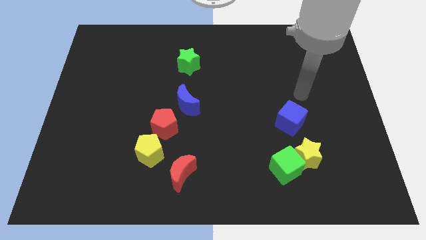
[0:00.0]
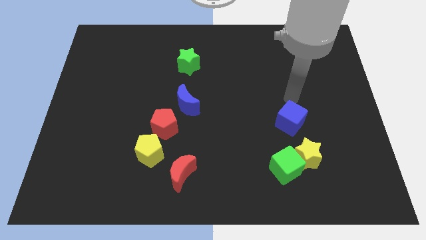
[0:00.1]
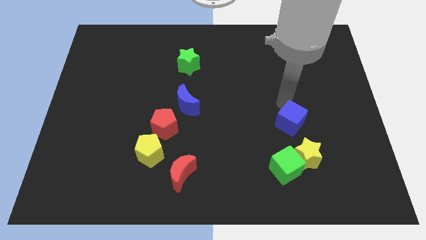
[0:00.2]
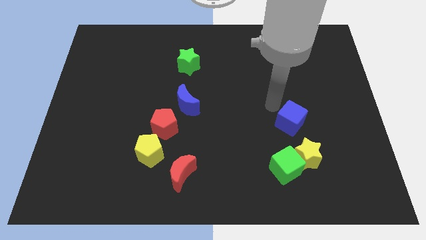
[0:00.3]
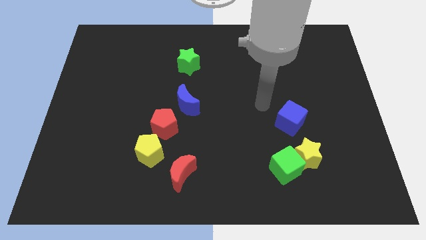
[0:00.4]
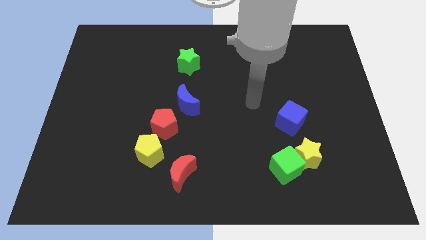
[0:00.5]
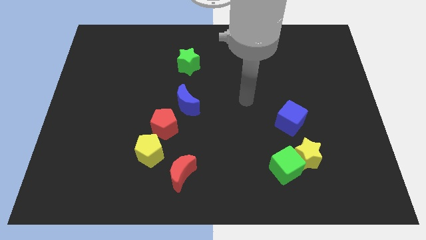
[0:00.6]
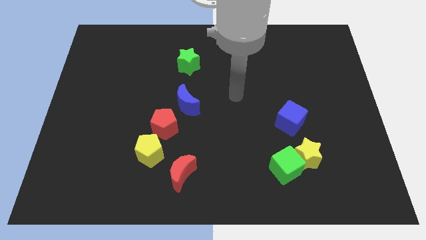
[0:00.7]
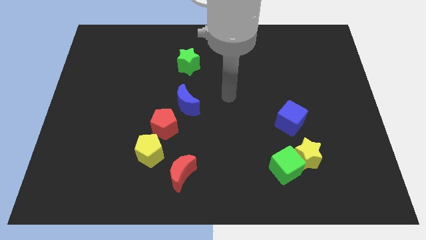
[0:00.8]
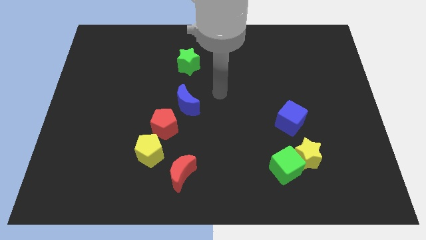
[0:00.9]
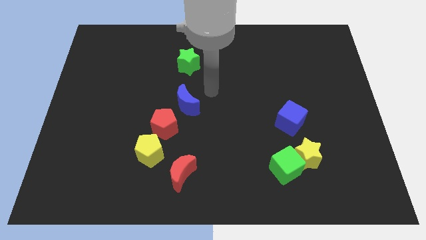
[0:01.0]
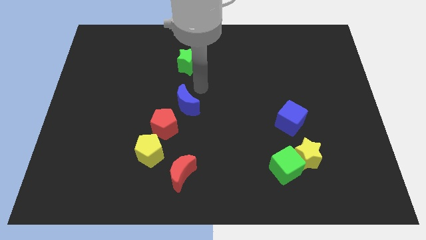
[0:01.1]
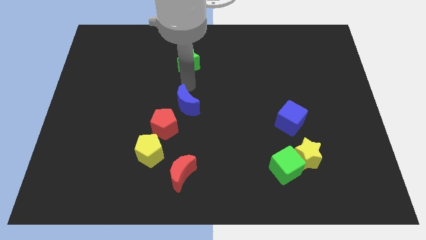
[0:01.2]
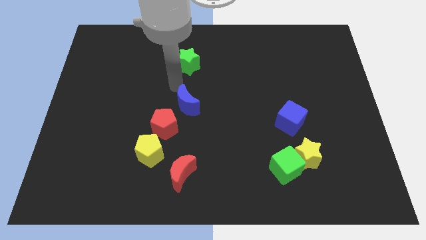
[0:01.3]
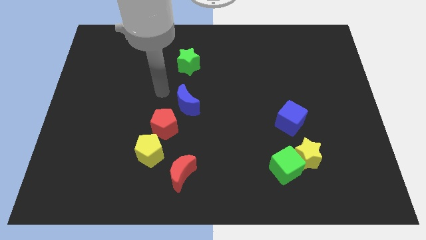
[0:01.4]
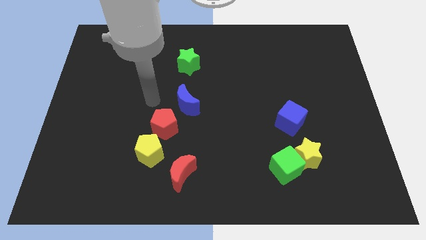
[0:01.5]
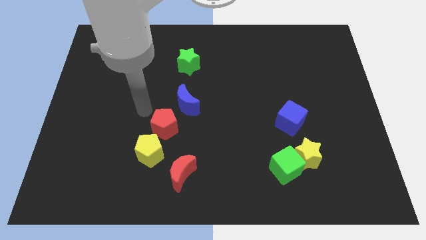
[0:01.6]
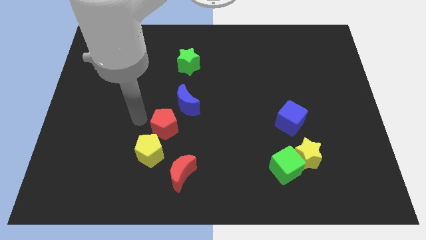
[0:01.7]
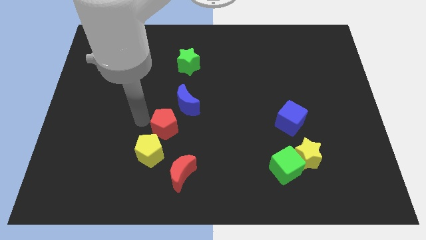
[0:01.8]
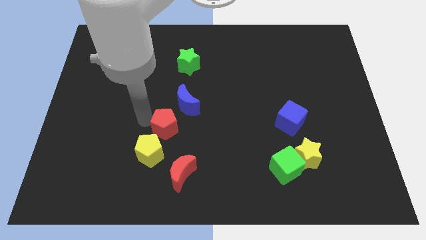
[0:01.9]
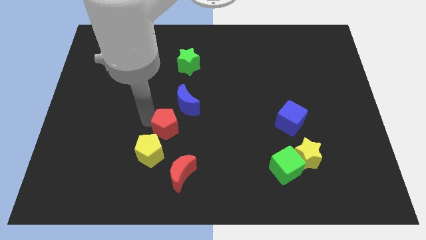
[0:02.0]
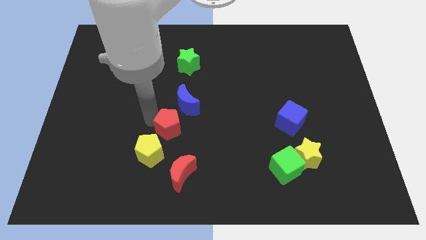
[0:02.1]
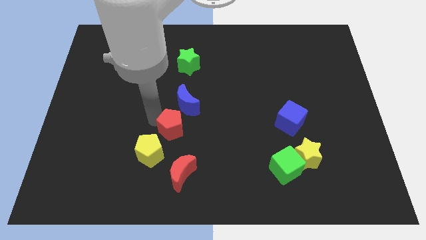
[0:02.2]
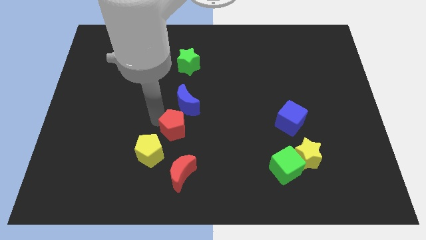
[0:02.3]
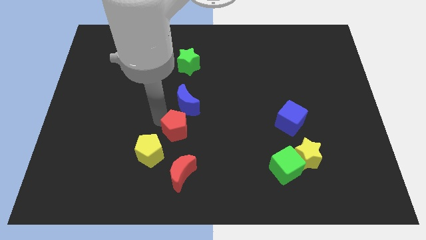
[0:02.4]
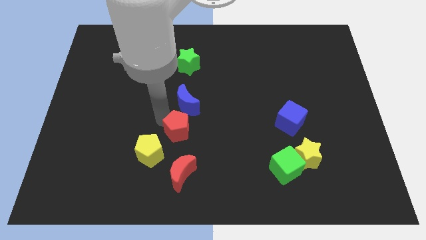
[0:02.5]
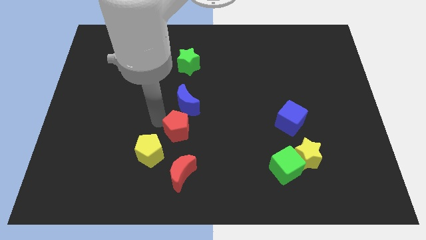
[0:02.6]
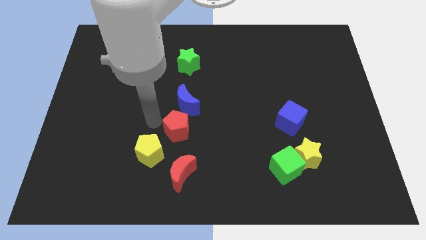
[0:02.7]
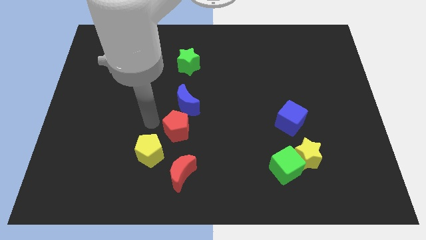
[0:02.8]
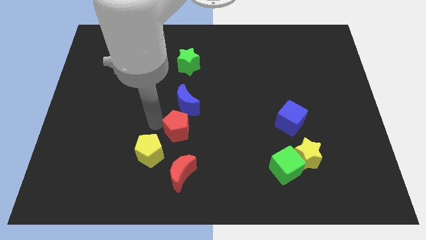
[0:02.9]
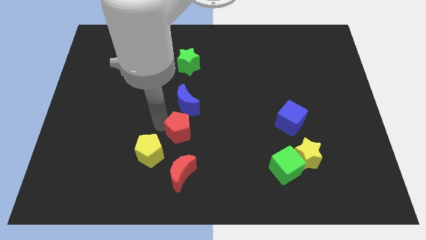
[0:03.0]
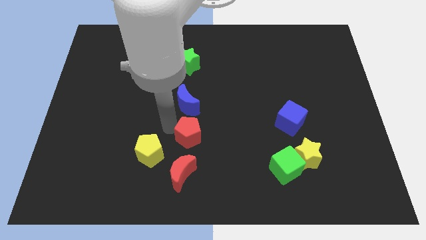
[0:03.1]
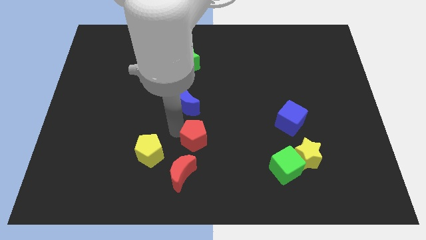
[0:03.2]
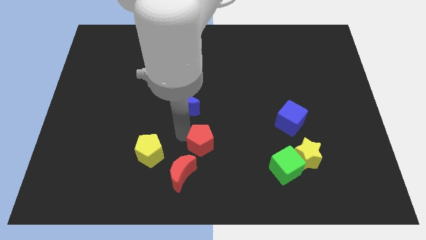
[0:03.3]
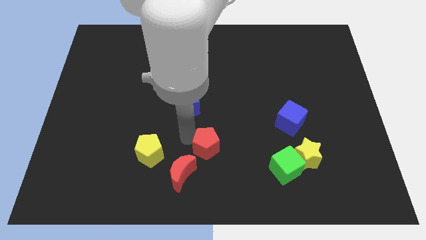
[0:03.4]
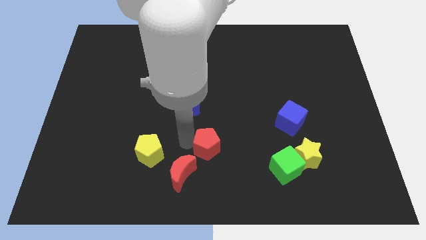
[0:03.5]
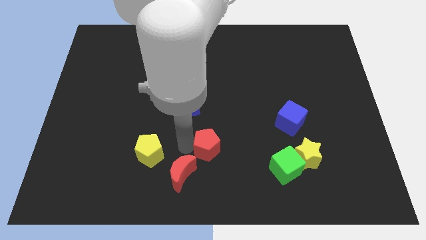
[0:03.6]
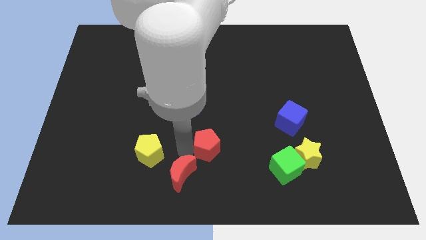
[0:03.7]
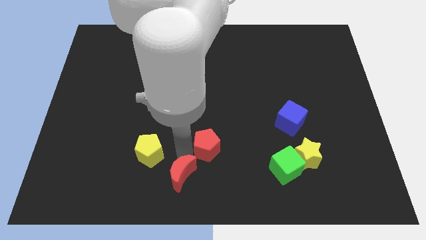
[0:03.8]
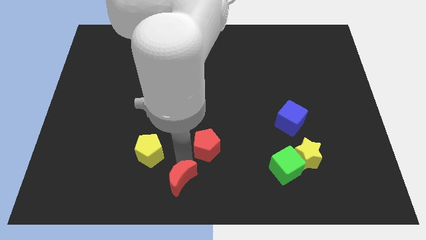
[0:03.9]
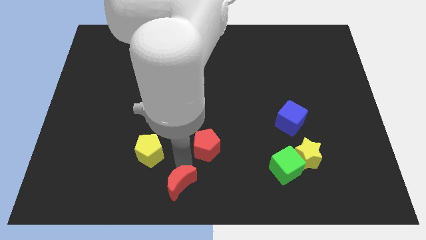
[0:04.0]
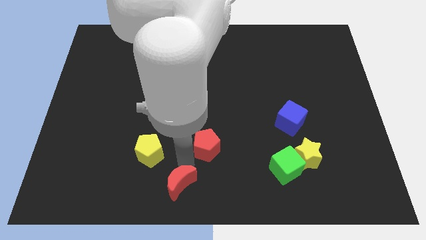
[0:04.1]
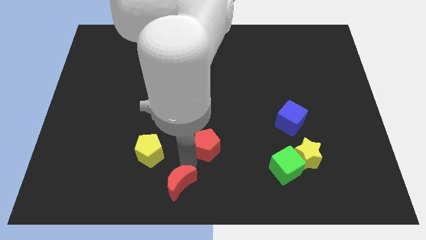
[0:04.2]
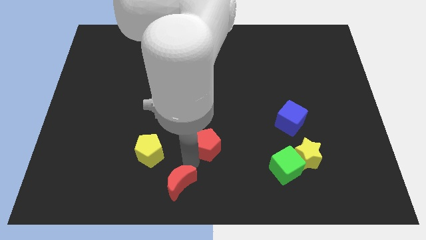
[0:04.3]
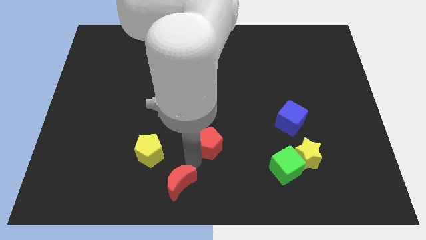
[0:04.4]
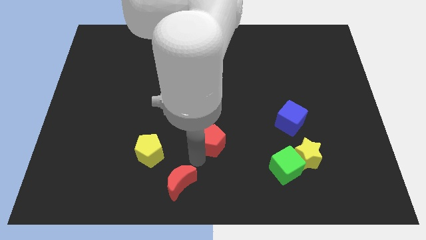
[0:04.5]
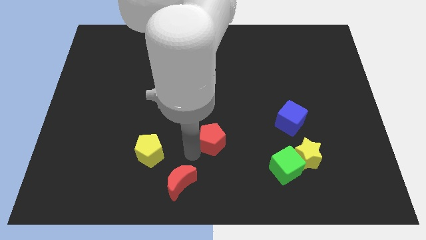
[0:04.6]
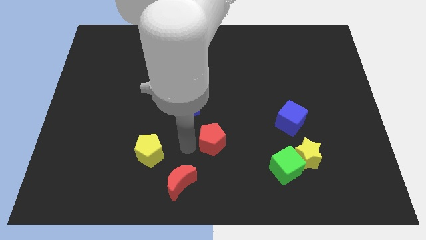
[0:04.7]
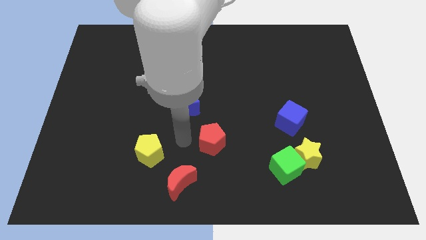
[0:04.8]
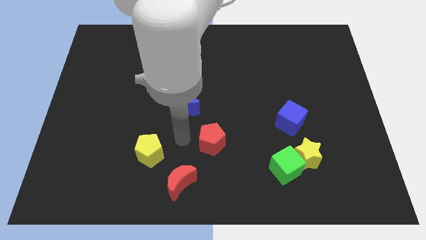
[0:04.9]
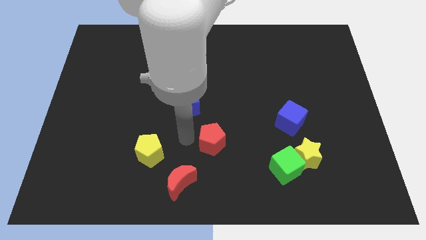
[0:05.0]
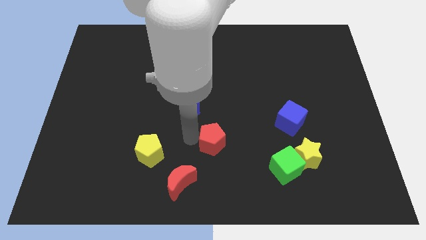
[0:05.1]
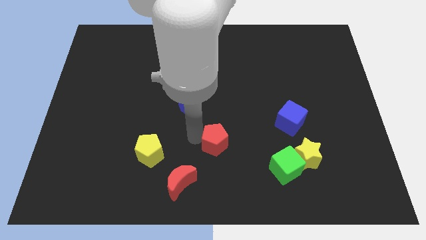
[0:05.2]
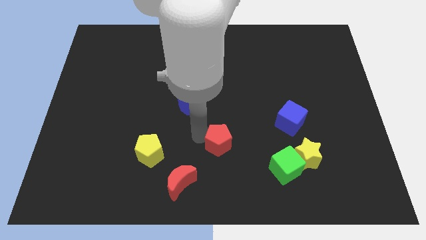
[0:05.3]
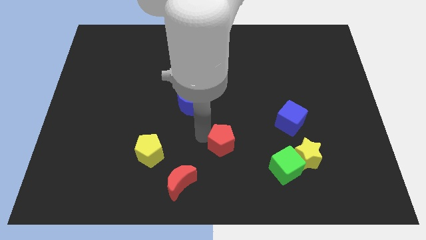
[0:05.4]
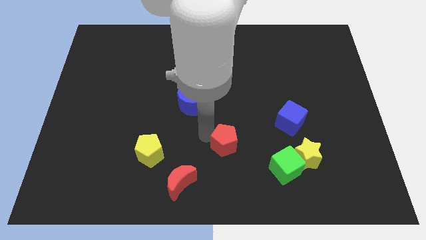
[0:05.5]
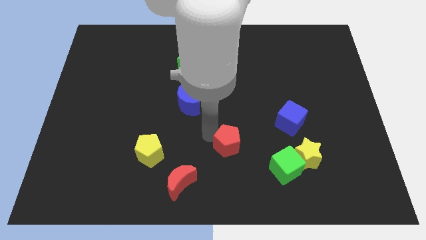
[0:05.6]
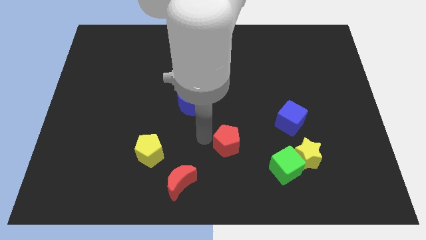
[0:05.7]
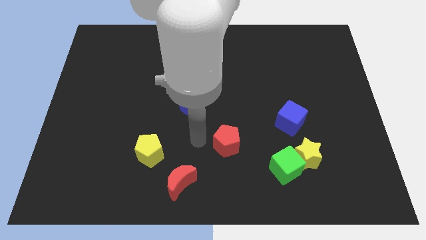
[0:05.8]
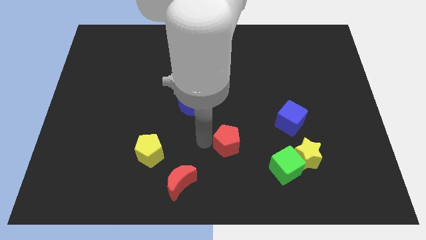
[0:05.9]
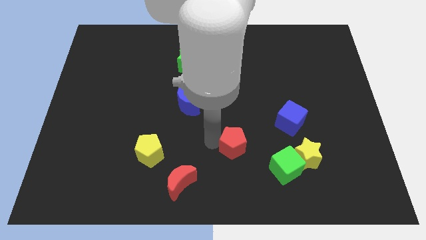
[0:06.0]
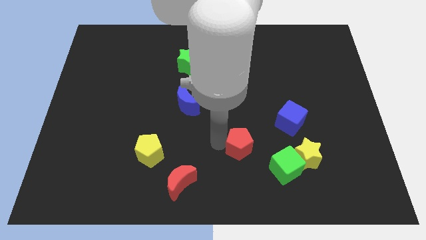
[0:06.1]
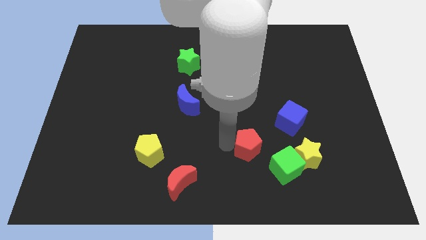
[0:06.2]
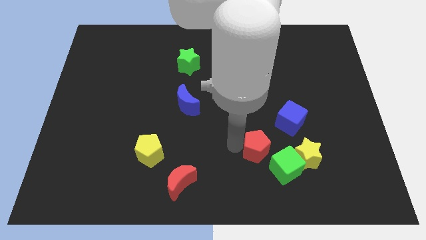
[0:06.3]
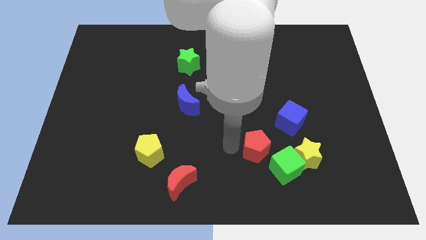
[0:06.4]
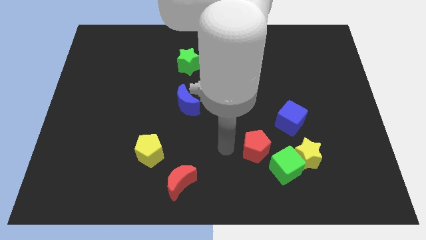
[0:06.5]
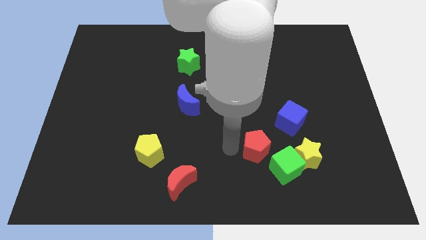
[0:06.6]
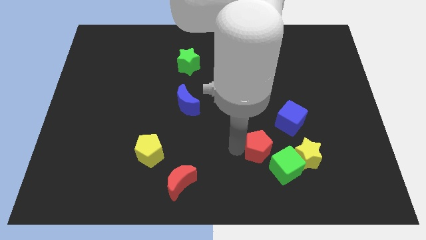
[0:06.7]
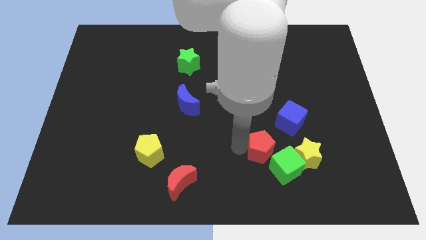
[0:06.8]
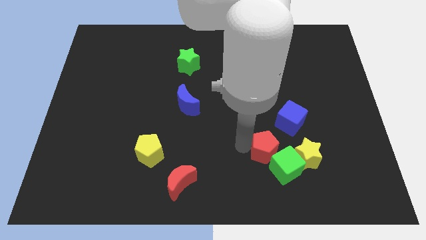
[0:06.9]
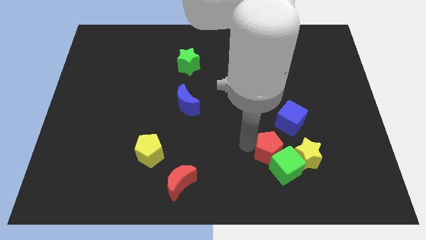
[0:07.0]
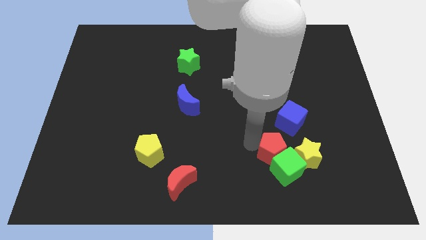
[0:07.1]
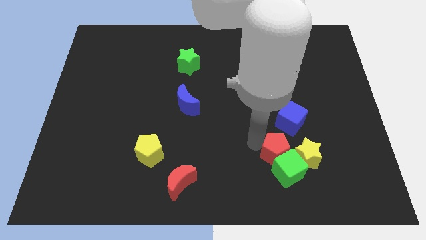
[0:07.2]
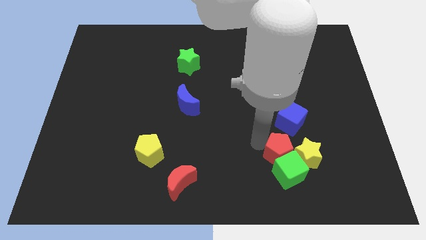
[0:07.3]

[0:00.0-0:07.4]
put the red pentagon towards the yellow star
